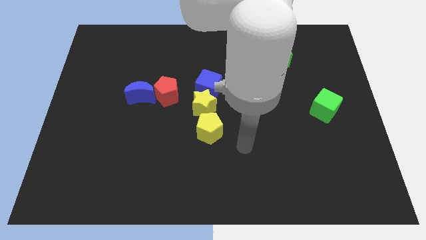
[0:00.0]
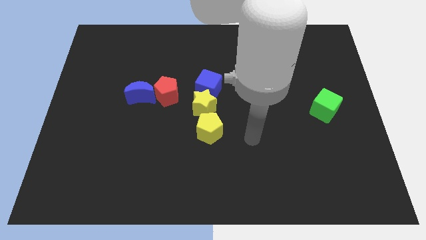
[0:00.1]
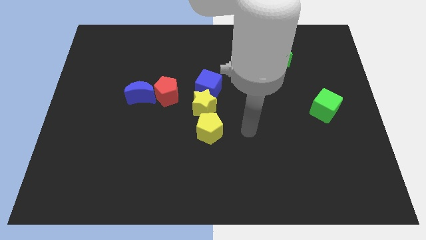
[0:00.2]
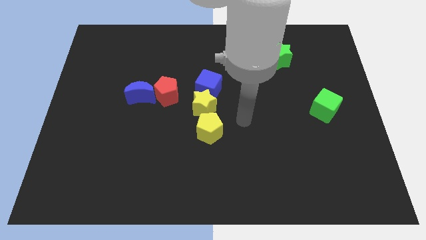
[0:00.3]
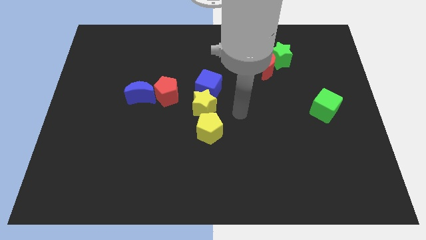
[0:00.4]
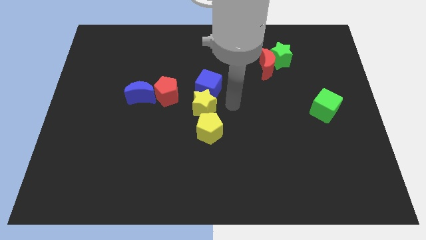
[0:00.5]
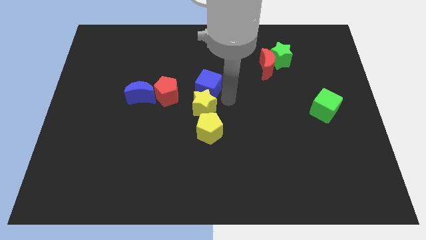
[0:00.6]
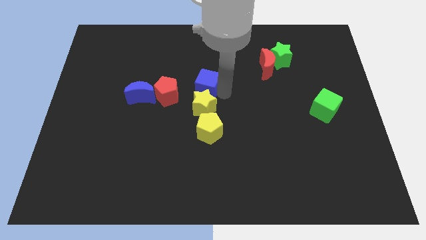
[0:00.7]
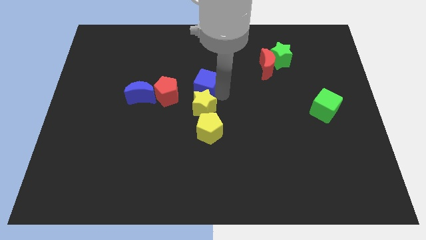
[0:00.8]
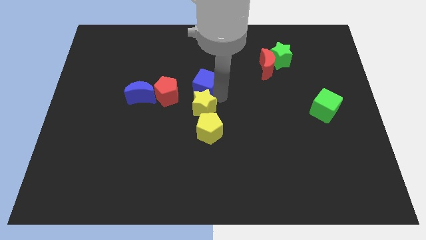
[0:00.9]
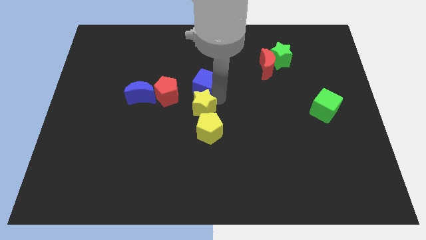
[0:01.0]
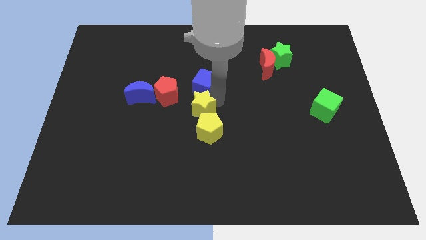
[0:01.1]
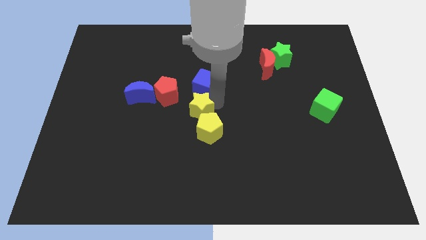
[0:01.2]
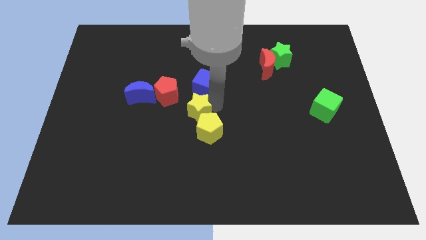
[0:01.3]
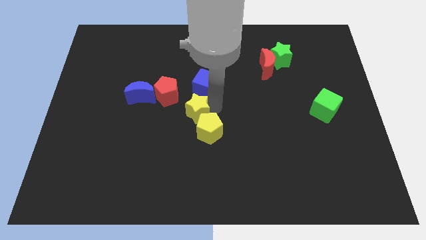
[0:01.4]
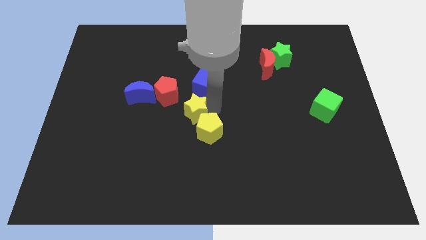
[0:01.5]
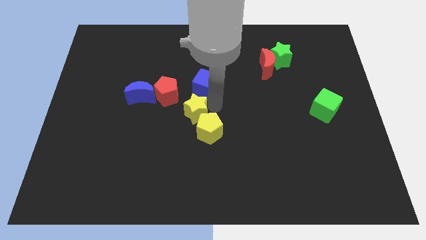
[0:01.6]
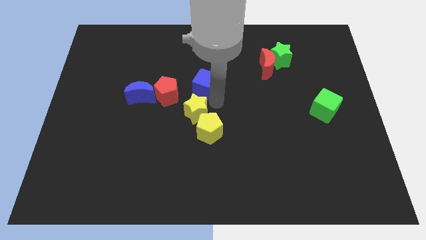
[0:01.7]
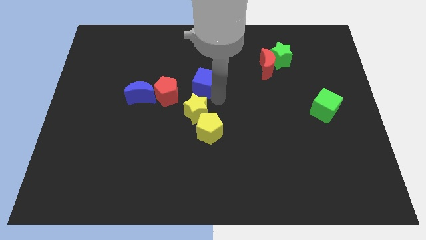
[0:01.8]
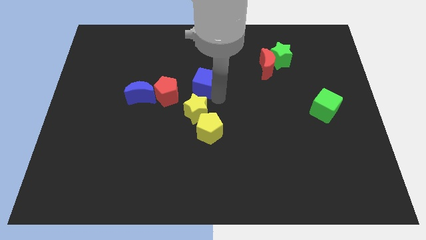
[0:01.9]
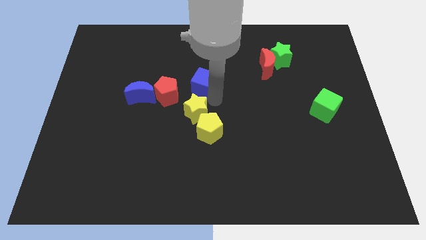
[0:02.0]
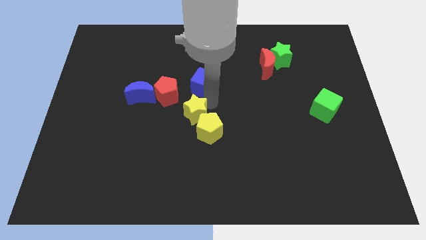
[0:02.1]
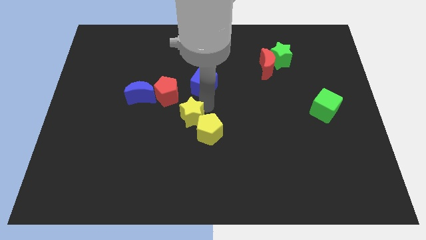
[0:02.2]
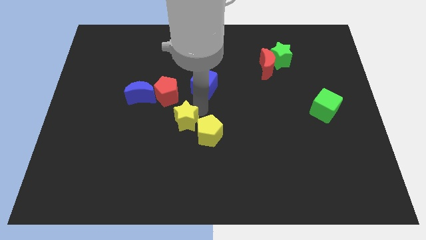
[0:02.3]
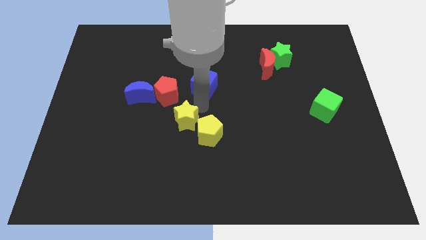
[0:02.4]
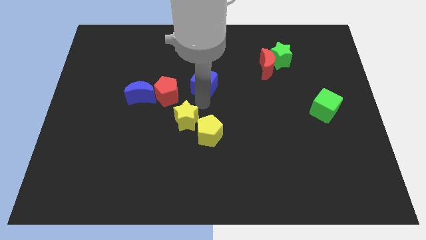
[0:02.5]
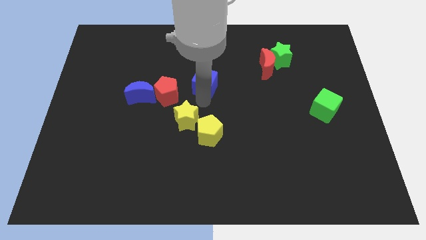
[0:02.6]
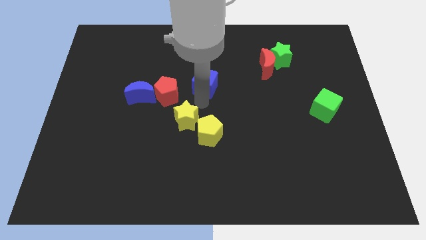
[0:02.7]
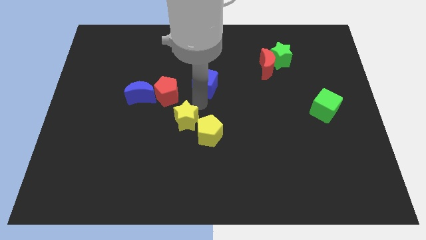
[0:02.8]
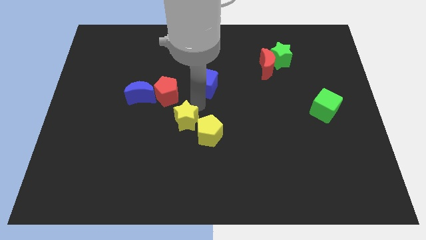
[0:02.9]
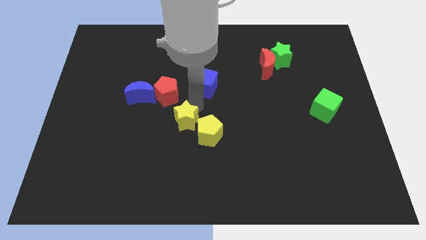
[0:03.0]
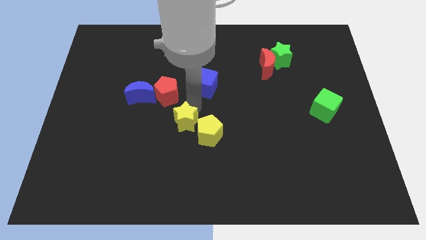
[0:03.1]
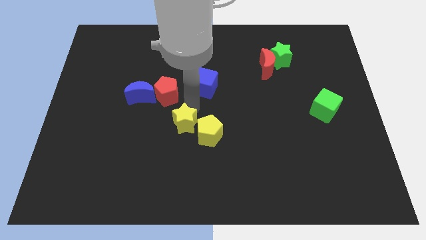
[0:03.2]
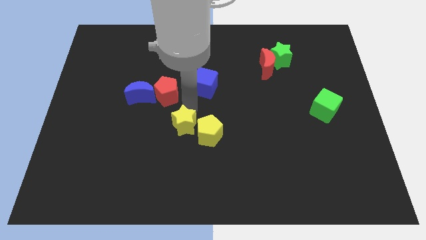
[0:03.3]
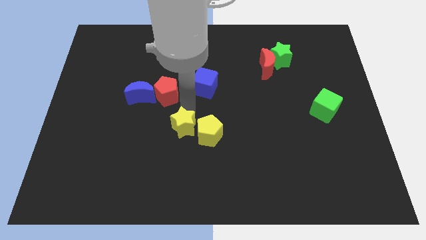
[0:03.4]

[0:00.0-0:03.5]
push the yellow star diagonally downwards and to the left a little bit

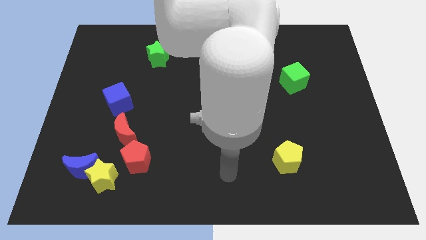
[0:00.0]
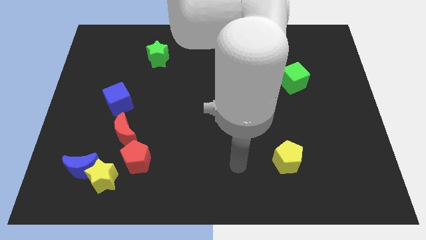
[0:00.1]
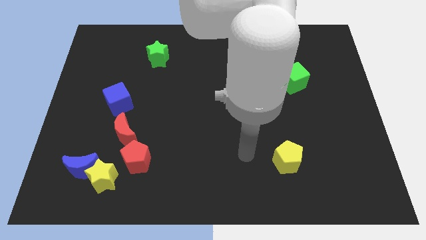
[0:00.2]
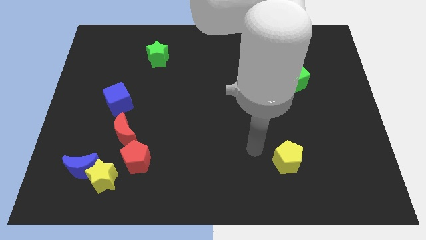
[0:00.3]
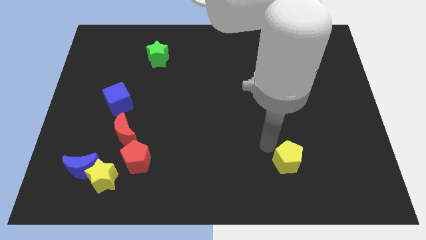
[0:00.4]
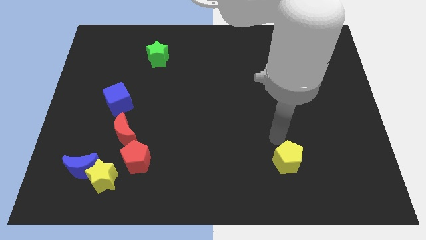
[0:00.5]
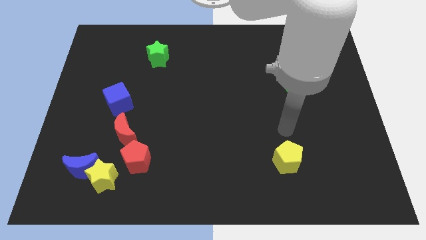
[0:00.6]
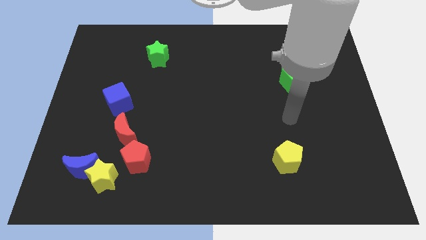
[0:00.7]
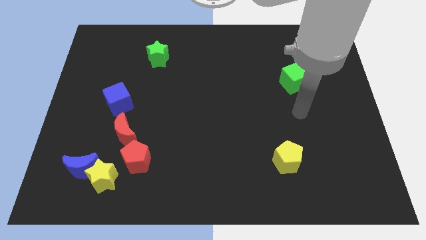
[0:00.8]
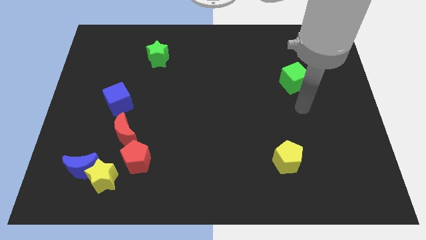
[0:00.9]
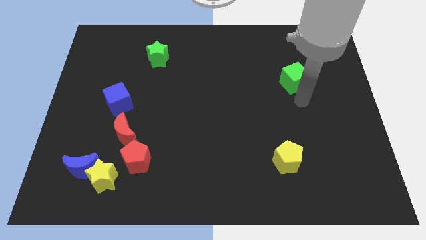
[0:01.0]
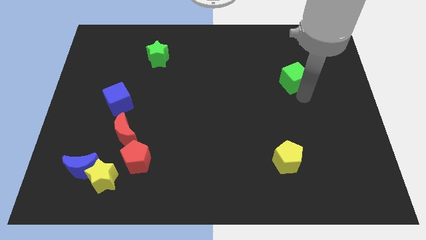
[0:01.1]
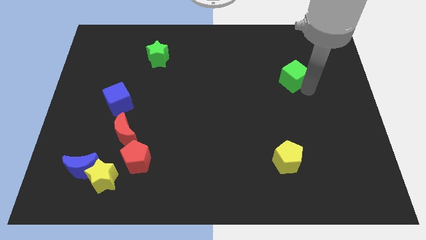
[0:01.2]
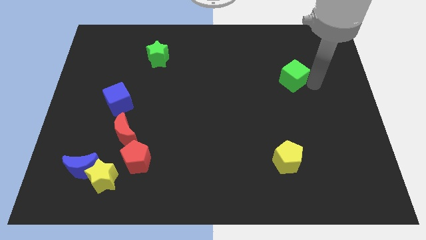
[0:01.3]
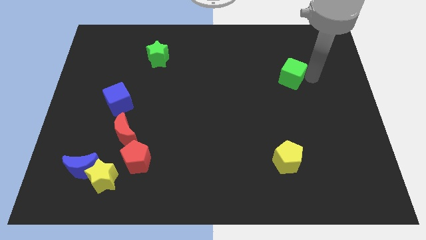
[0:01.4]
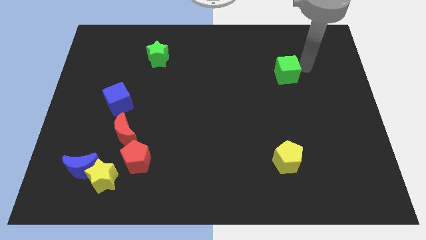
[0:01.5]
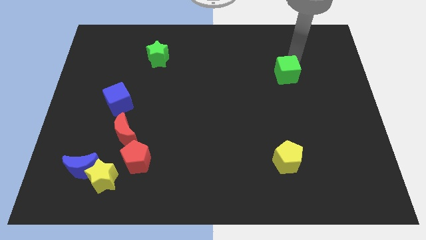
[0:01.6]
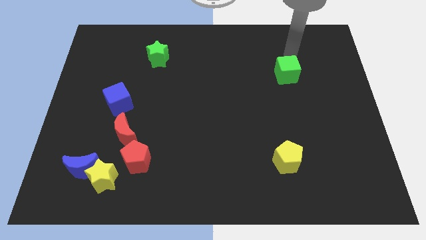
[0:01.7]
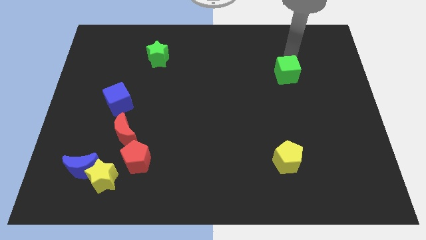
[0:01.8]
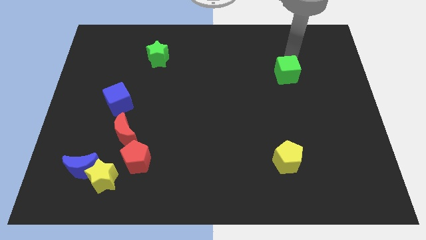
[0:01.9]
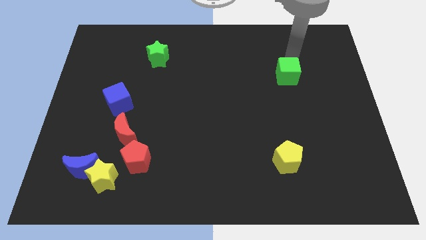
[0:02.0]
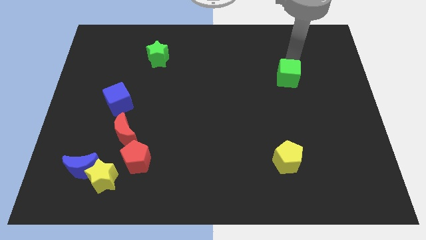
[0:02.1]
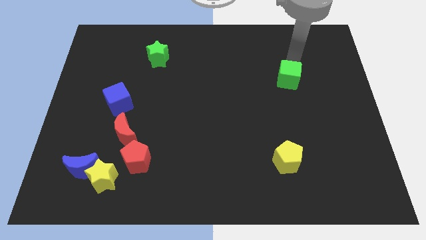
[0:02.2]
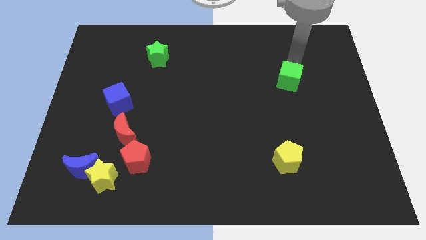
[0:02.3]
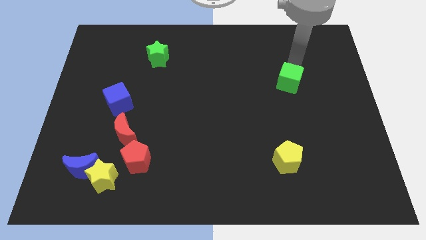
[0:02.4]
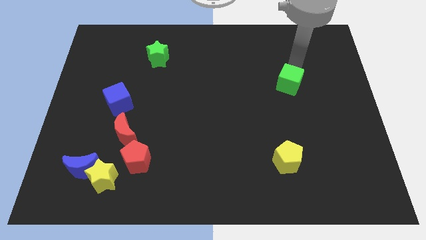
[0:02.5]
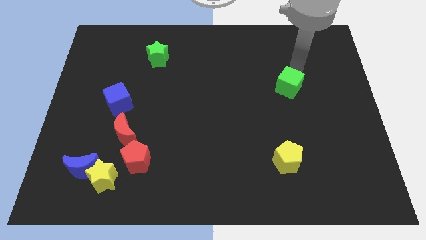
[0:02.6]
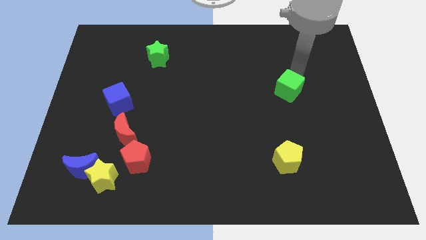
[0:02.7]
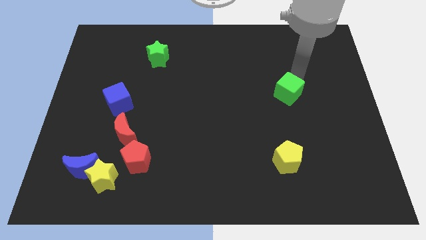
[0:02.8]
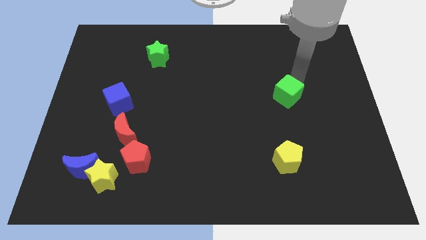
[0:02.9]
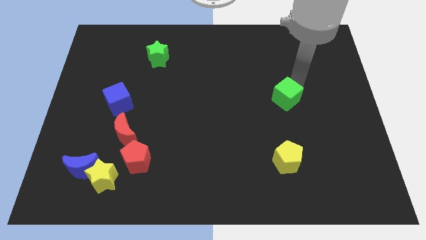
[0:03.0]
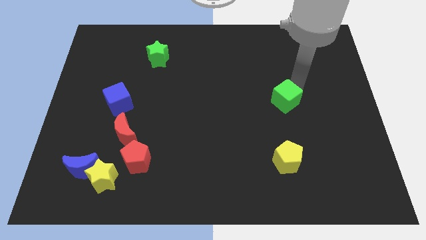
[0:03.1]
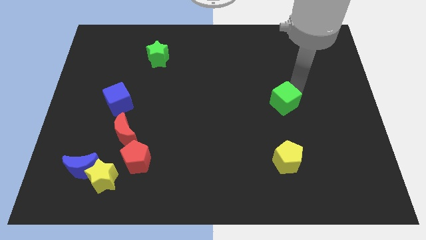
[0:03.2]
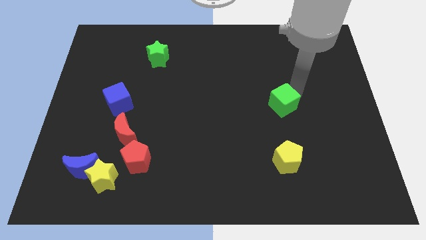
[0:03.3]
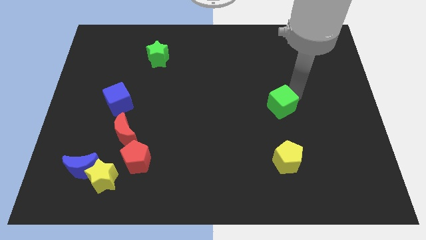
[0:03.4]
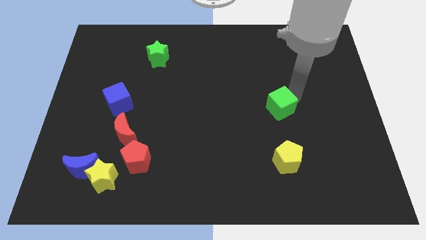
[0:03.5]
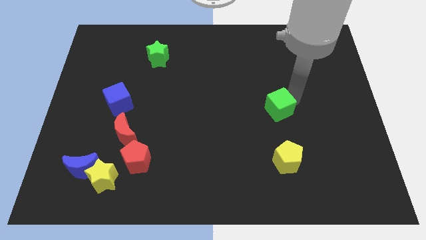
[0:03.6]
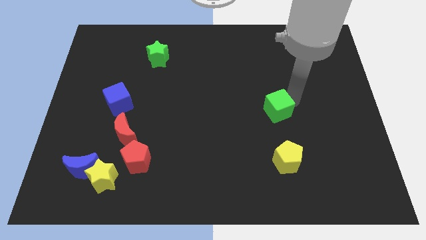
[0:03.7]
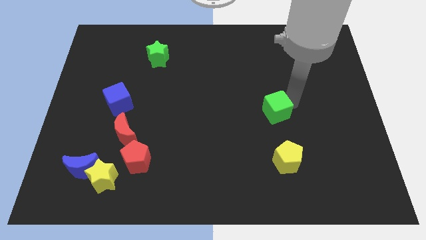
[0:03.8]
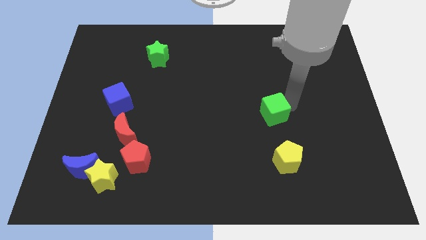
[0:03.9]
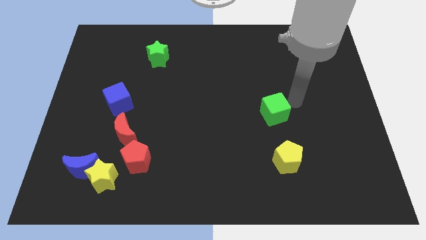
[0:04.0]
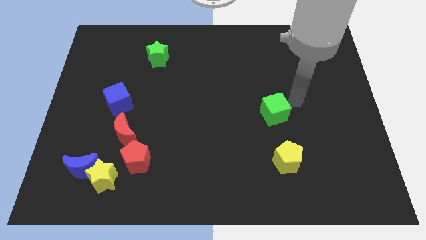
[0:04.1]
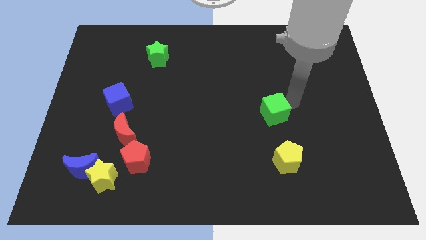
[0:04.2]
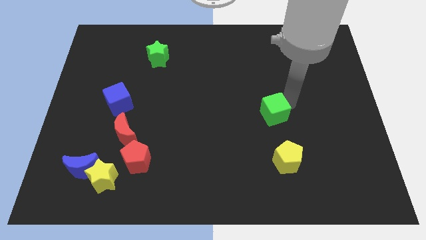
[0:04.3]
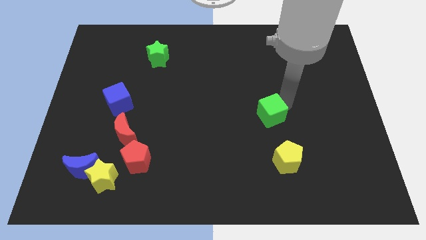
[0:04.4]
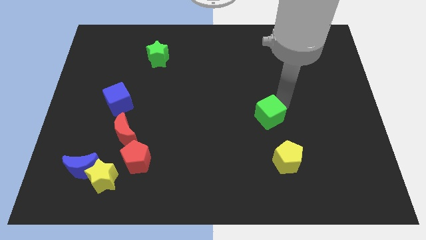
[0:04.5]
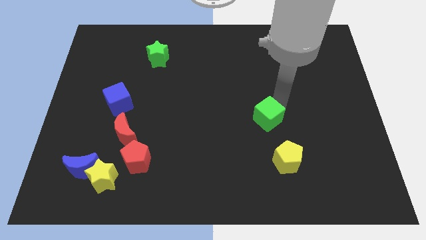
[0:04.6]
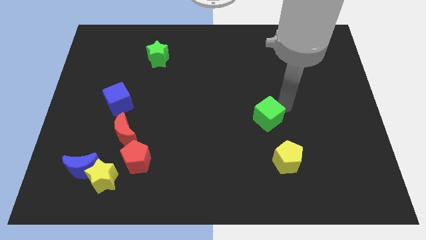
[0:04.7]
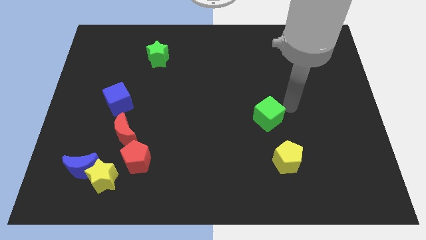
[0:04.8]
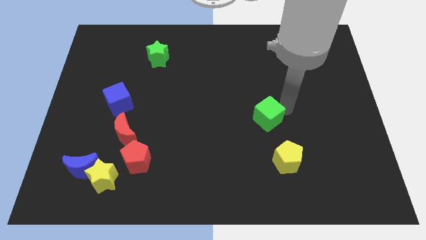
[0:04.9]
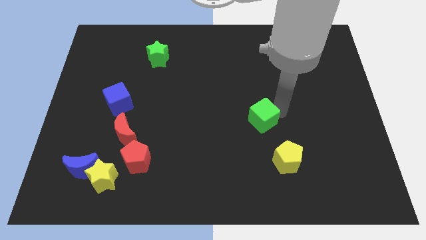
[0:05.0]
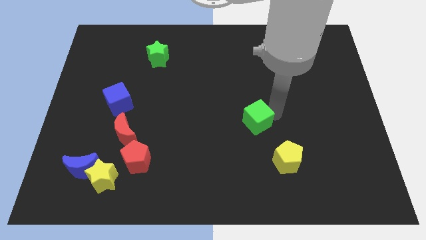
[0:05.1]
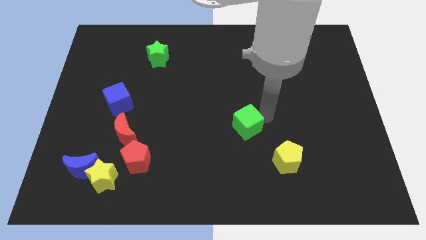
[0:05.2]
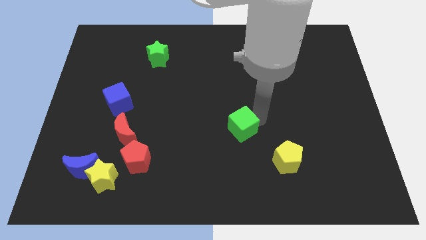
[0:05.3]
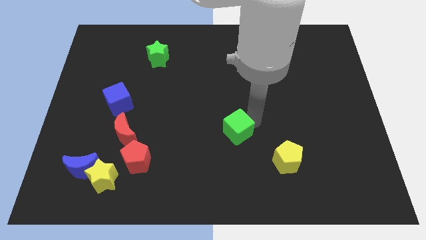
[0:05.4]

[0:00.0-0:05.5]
move the green cube diagonally down and left
